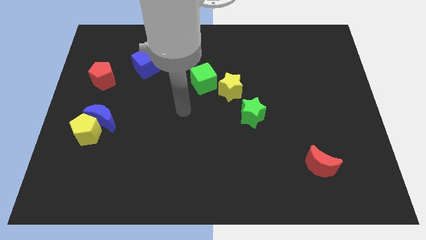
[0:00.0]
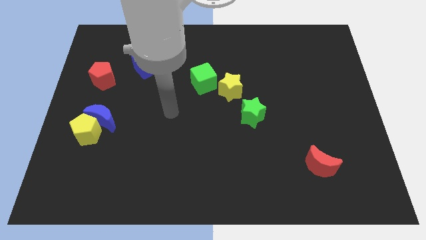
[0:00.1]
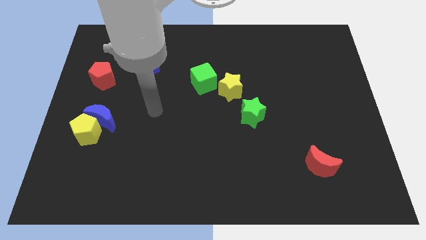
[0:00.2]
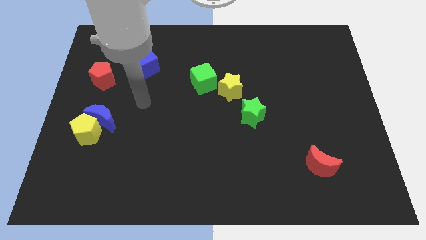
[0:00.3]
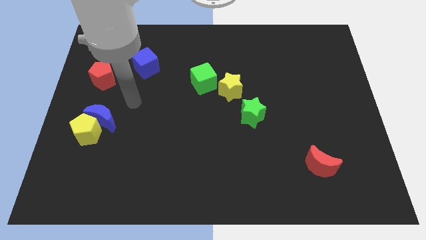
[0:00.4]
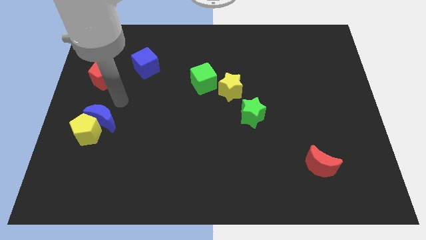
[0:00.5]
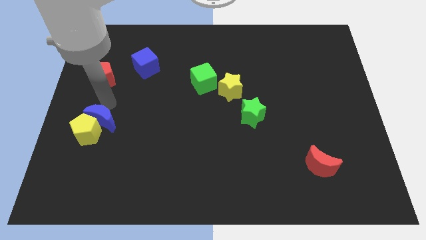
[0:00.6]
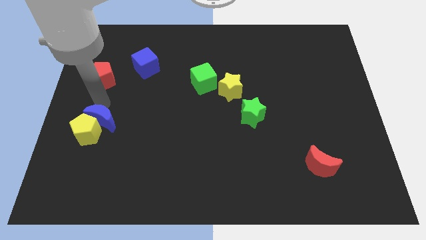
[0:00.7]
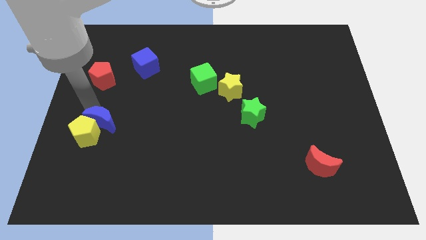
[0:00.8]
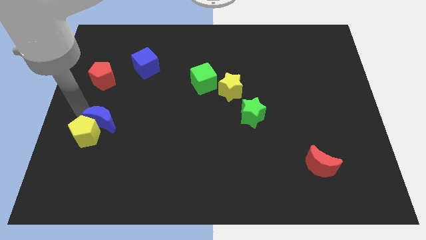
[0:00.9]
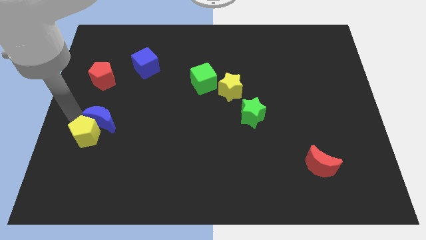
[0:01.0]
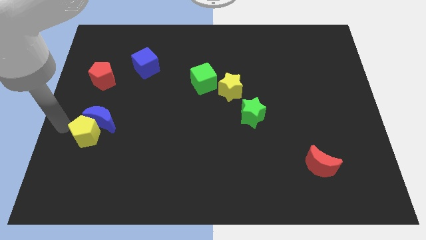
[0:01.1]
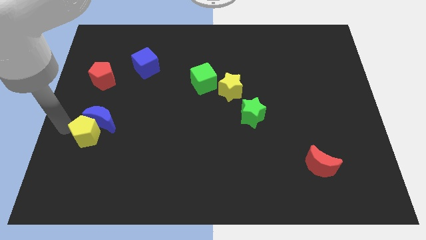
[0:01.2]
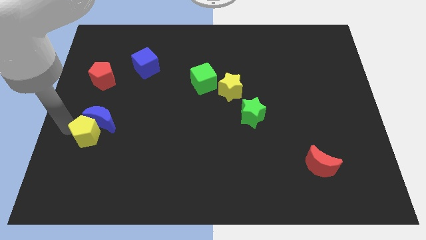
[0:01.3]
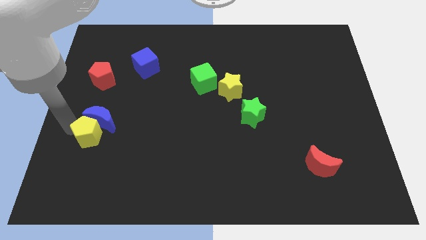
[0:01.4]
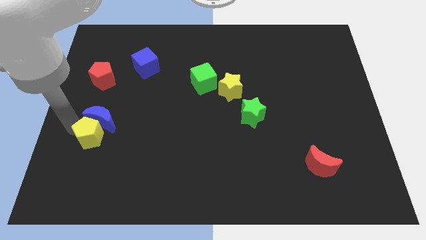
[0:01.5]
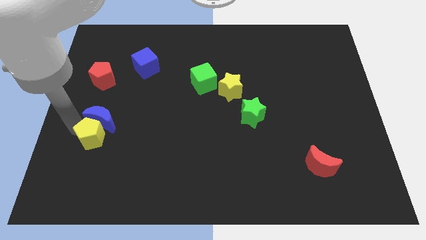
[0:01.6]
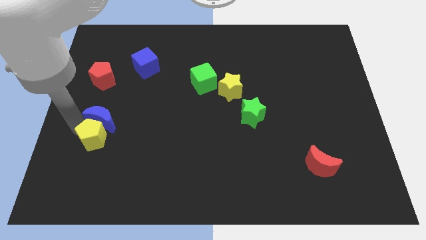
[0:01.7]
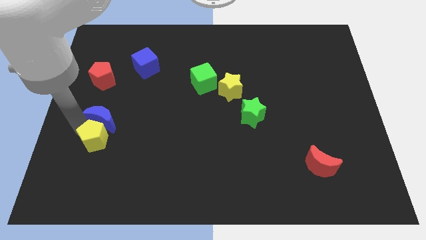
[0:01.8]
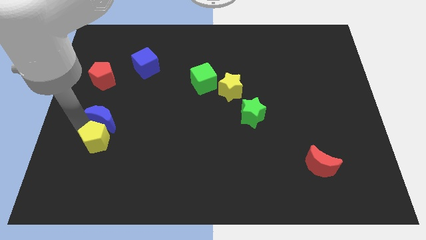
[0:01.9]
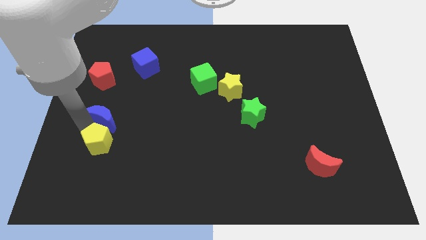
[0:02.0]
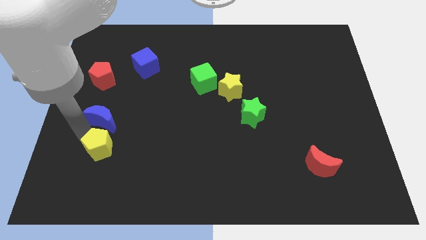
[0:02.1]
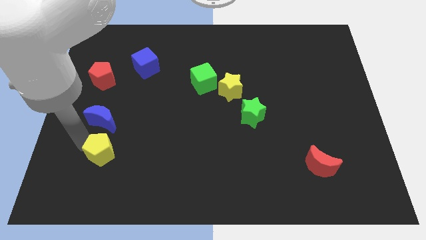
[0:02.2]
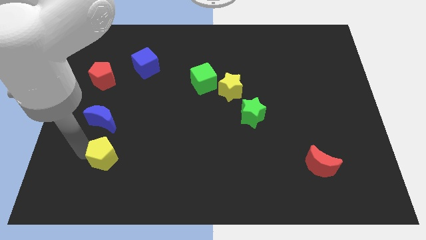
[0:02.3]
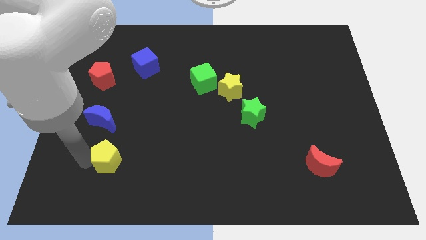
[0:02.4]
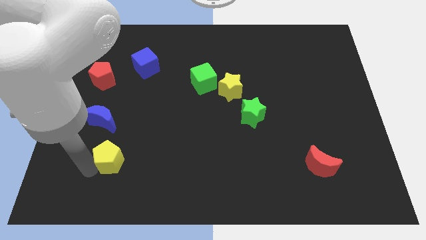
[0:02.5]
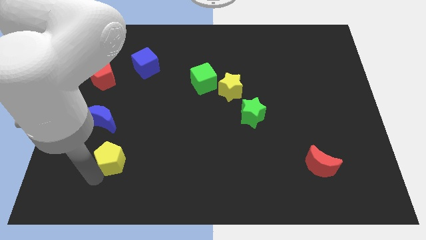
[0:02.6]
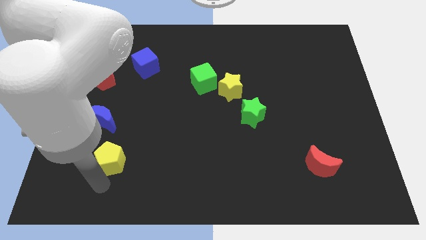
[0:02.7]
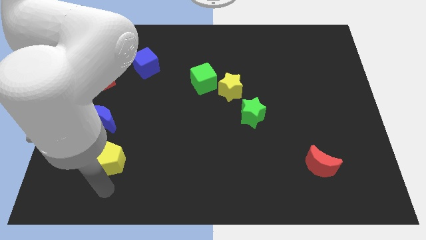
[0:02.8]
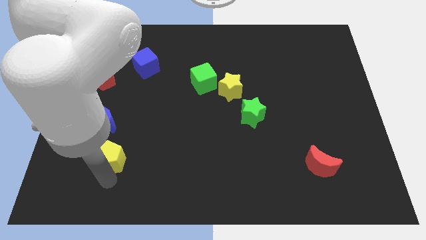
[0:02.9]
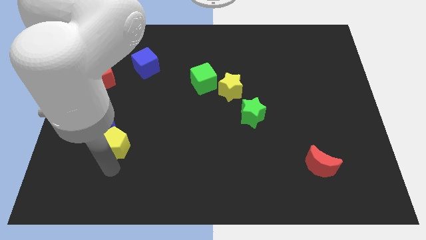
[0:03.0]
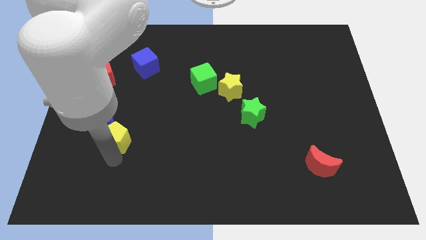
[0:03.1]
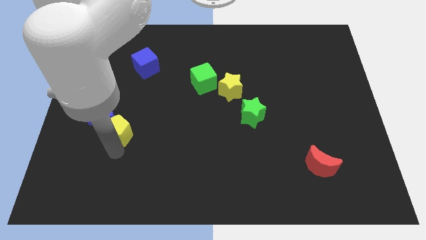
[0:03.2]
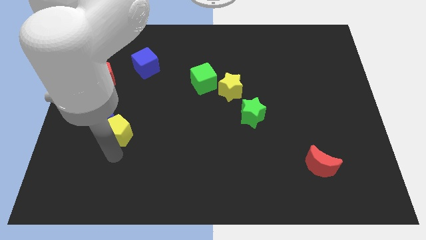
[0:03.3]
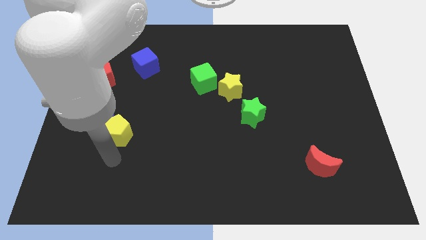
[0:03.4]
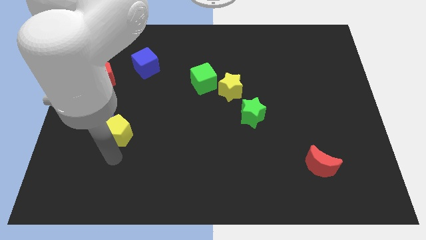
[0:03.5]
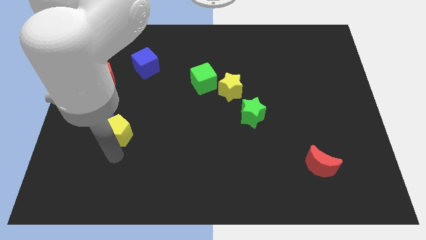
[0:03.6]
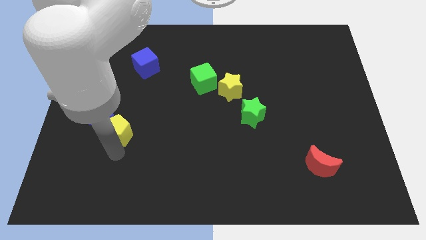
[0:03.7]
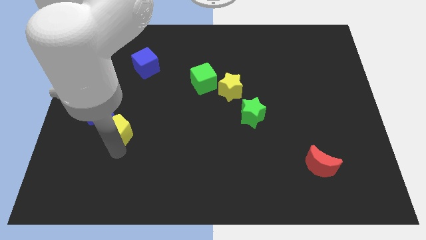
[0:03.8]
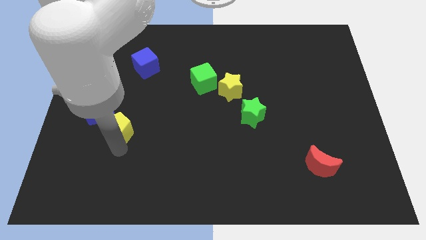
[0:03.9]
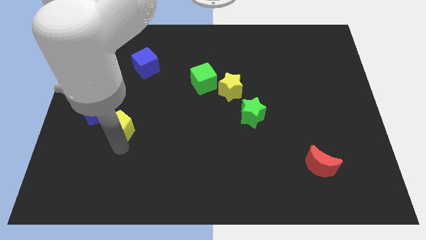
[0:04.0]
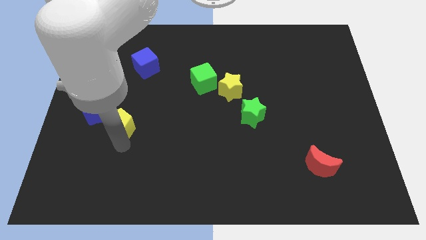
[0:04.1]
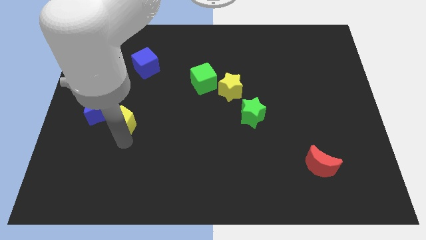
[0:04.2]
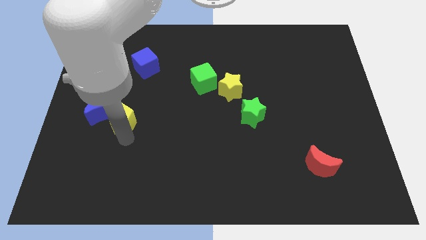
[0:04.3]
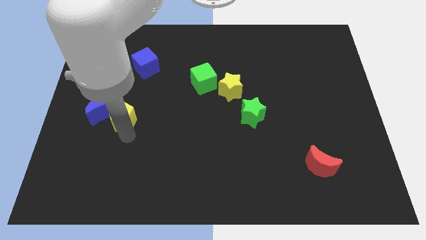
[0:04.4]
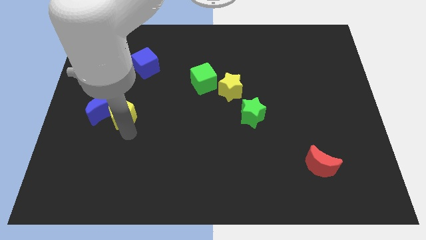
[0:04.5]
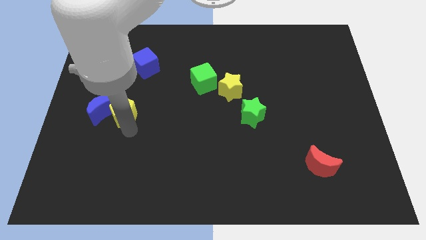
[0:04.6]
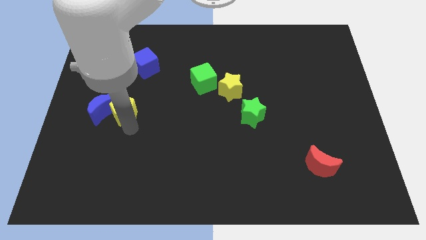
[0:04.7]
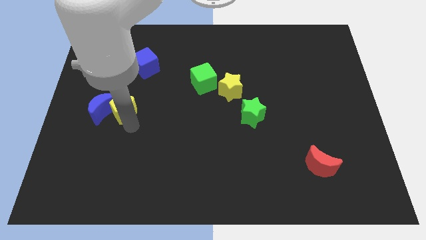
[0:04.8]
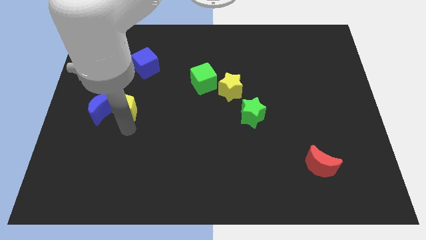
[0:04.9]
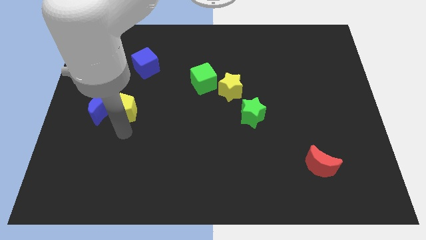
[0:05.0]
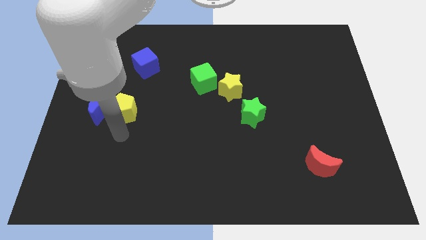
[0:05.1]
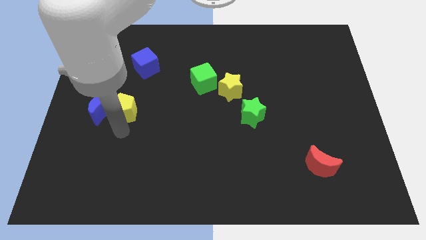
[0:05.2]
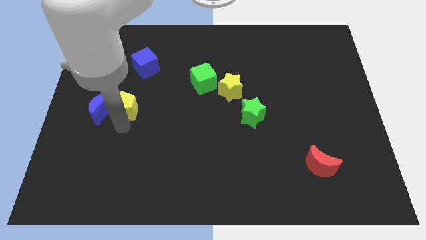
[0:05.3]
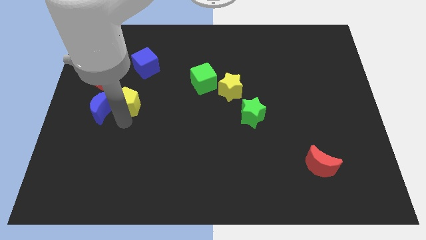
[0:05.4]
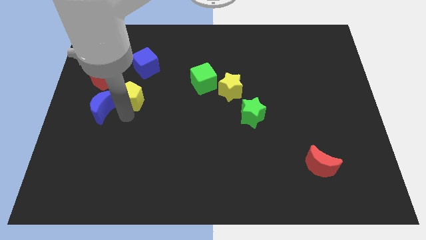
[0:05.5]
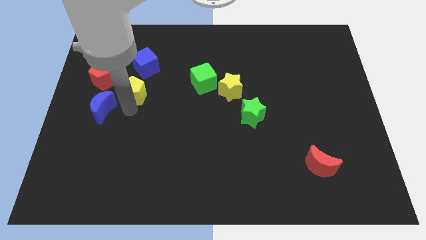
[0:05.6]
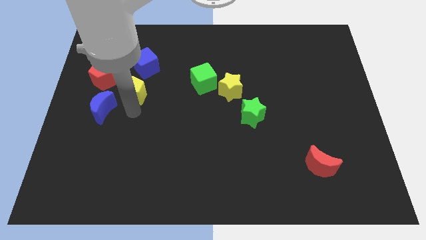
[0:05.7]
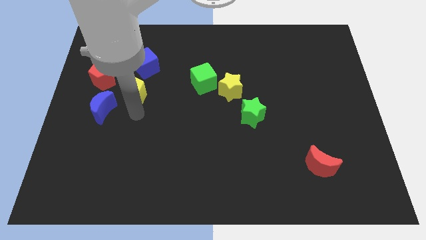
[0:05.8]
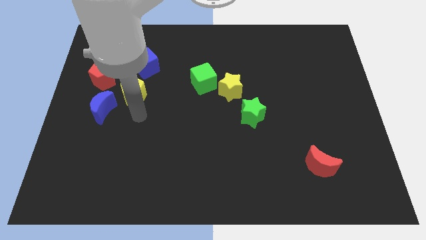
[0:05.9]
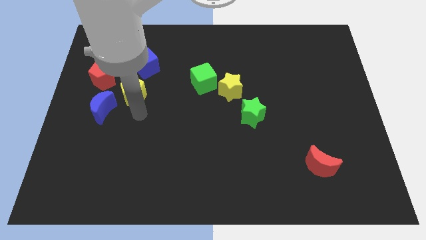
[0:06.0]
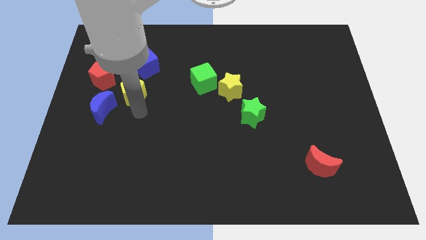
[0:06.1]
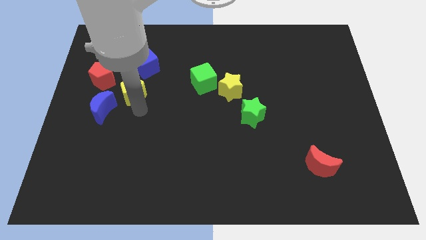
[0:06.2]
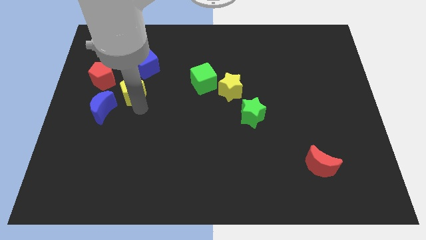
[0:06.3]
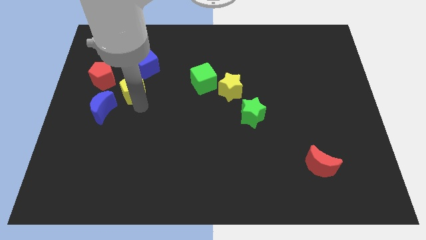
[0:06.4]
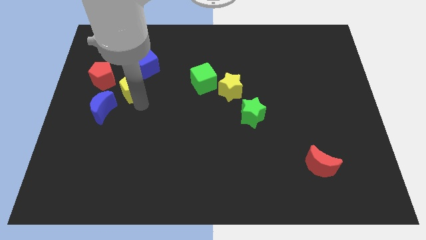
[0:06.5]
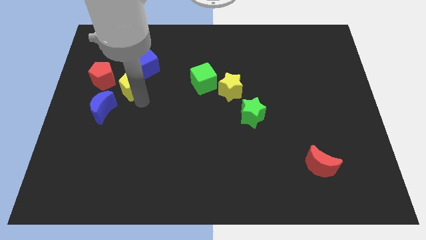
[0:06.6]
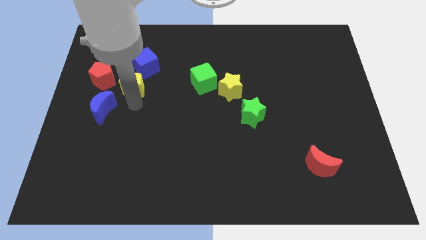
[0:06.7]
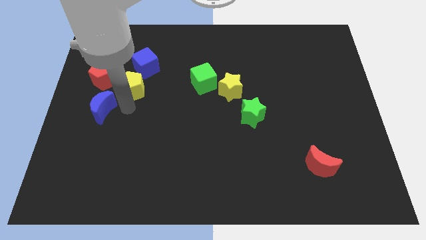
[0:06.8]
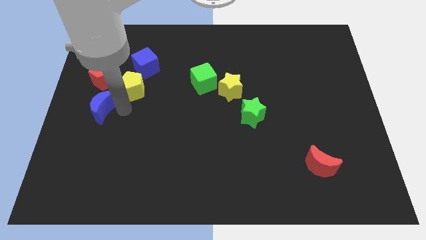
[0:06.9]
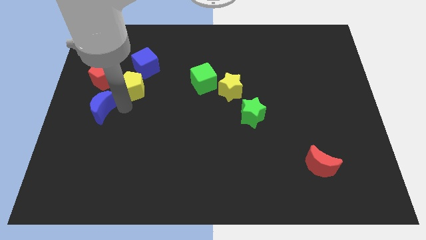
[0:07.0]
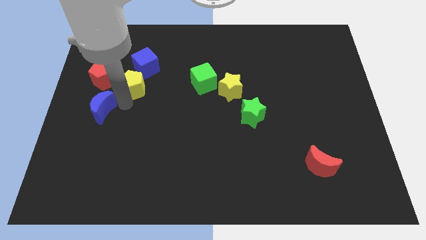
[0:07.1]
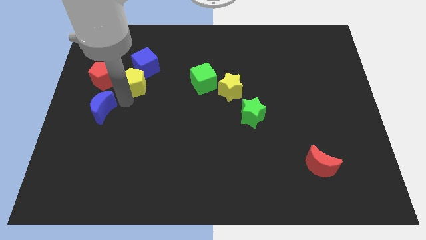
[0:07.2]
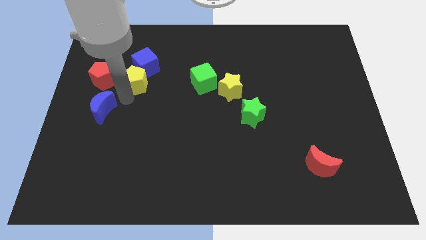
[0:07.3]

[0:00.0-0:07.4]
slide the yellow pentagon towards the blue cube
